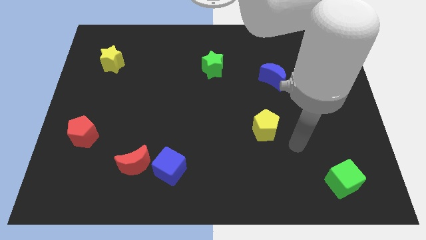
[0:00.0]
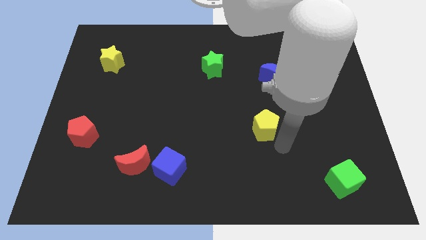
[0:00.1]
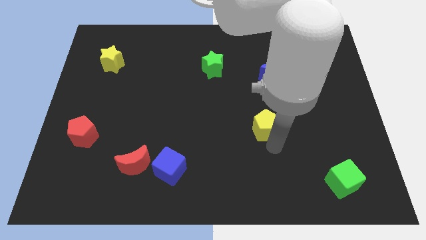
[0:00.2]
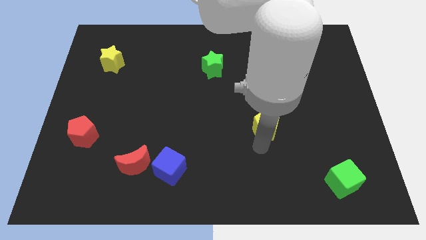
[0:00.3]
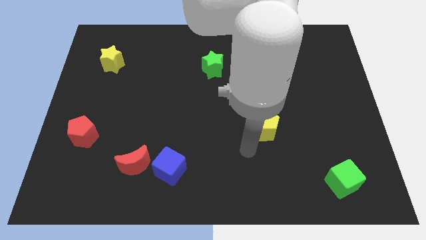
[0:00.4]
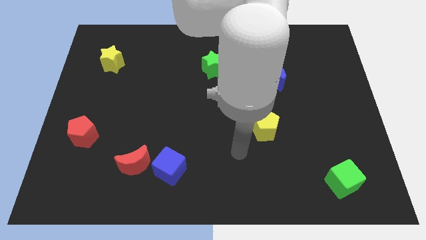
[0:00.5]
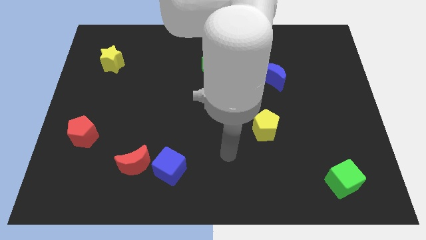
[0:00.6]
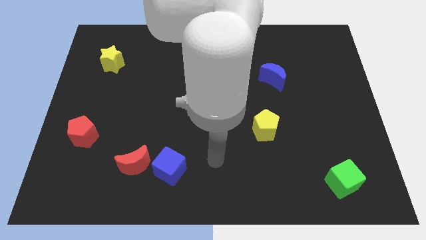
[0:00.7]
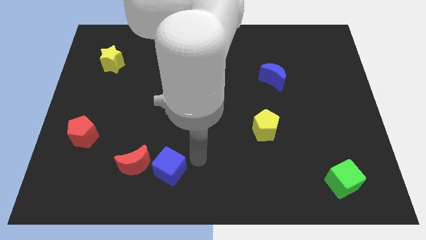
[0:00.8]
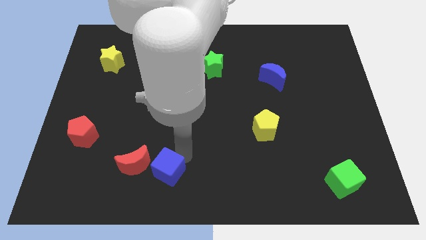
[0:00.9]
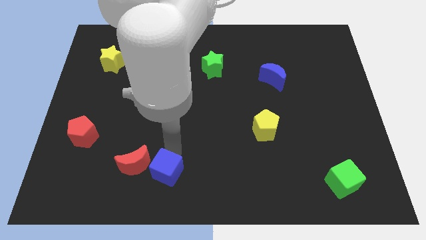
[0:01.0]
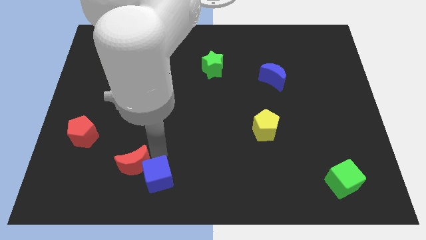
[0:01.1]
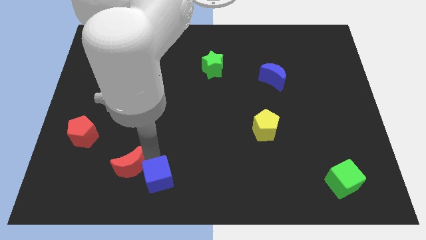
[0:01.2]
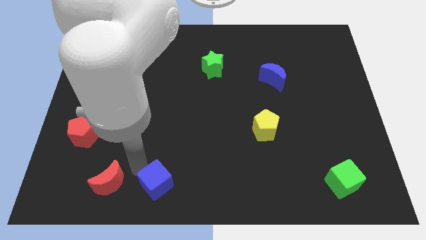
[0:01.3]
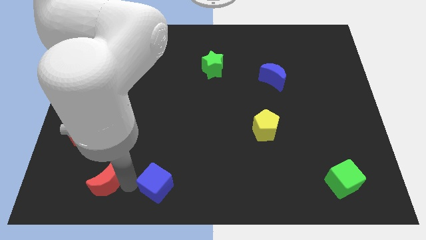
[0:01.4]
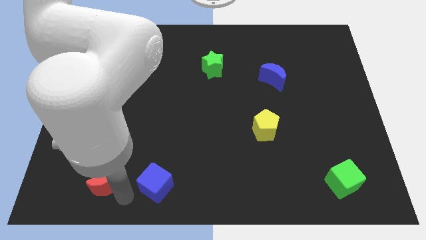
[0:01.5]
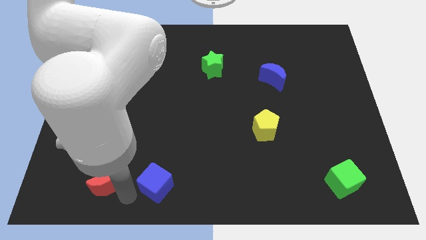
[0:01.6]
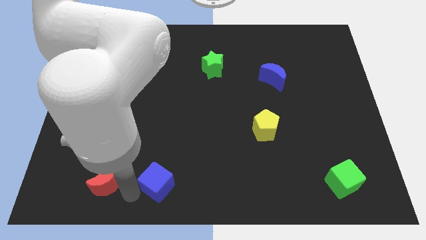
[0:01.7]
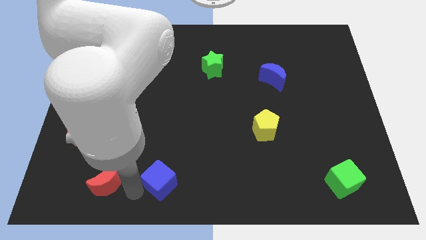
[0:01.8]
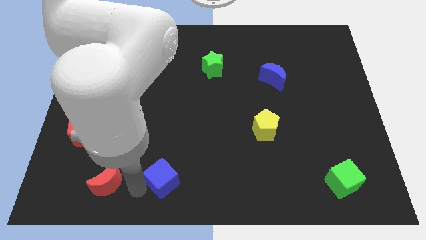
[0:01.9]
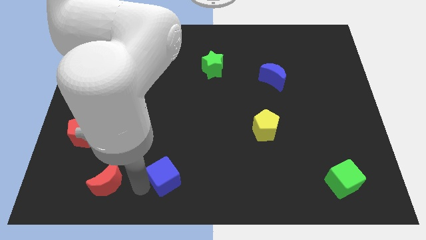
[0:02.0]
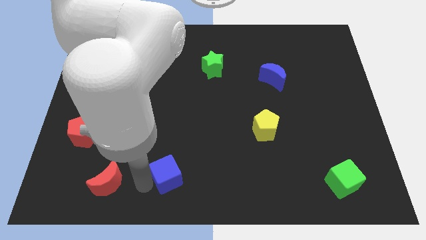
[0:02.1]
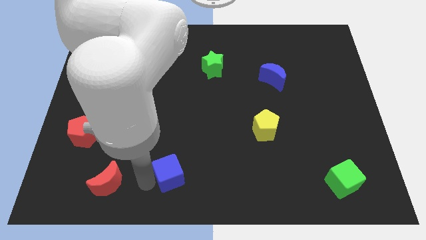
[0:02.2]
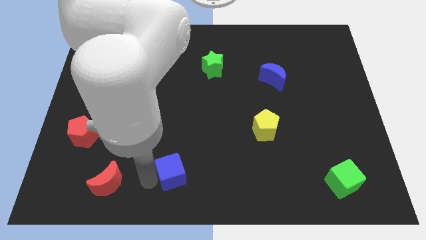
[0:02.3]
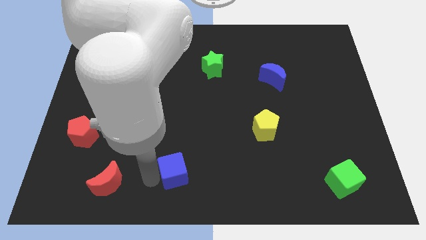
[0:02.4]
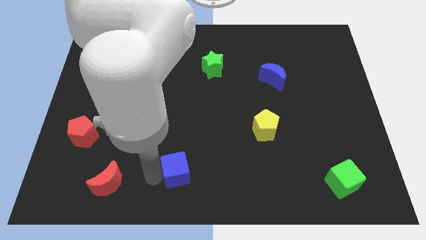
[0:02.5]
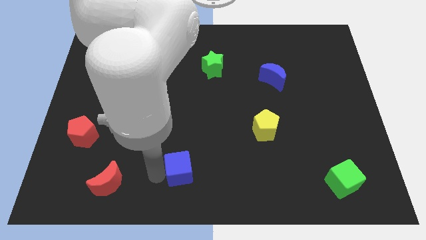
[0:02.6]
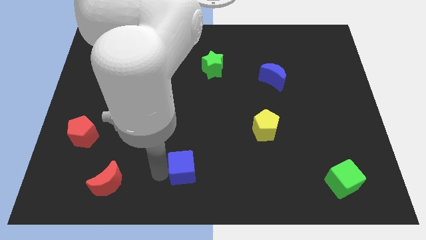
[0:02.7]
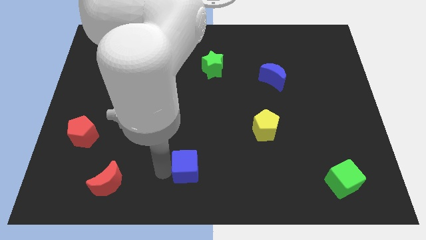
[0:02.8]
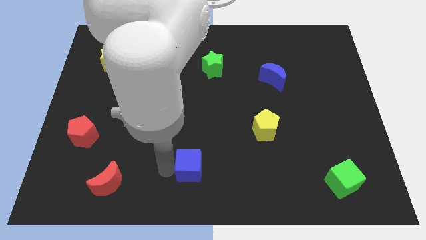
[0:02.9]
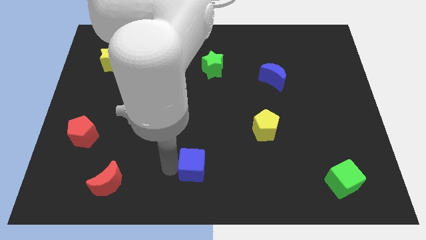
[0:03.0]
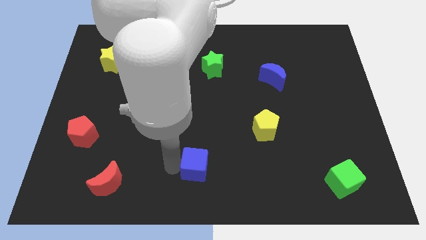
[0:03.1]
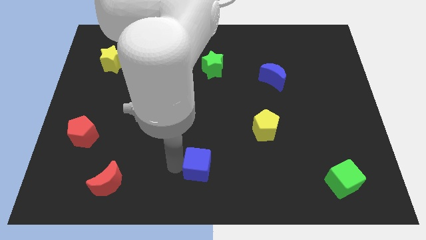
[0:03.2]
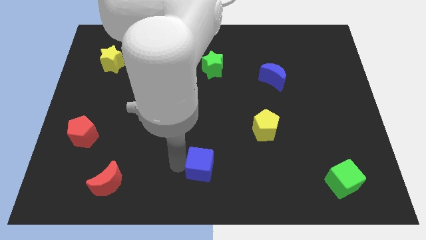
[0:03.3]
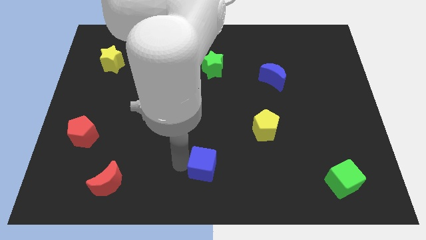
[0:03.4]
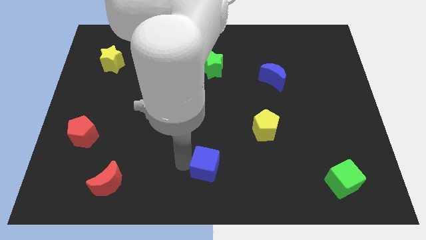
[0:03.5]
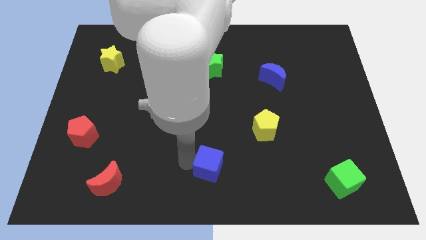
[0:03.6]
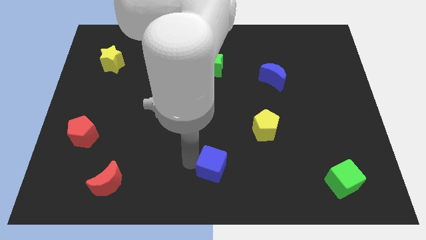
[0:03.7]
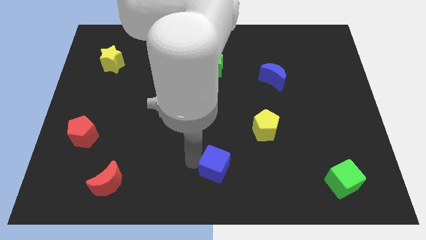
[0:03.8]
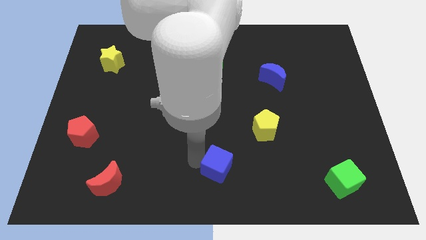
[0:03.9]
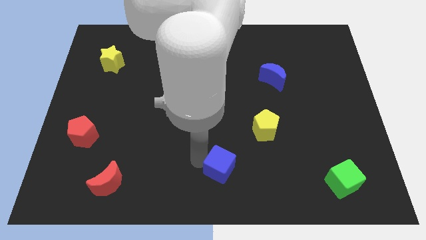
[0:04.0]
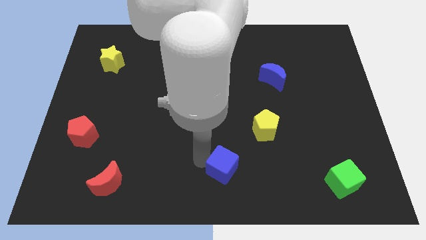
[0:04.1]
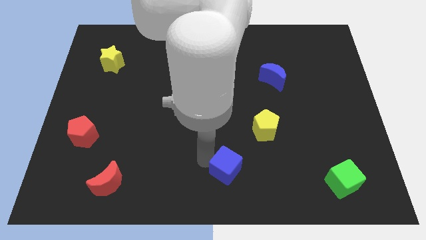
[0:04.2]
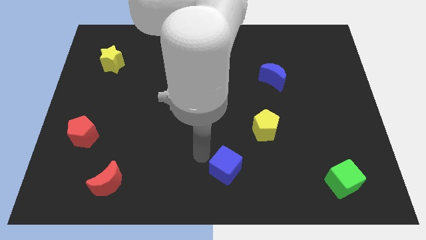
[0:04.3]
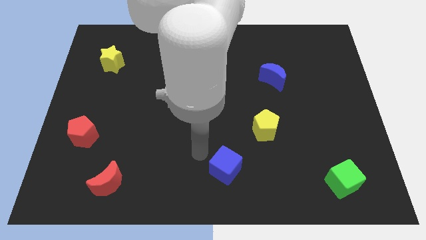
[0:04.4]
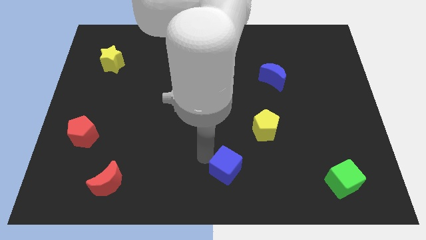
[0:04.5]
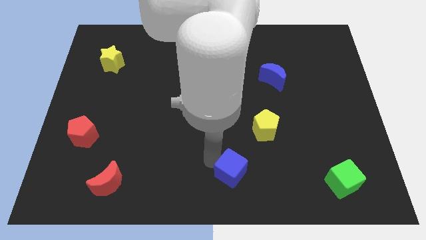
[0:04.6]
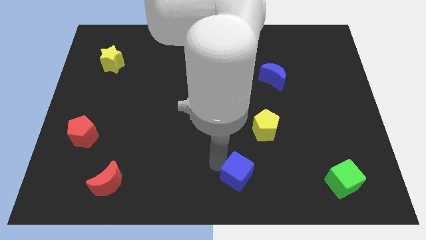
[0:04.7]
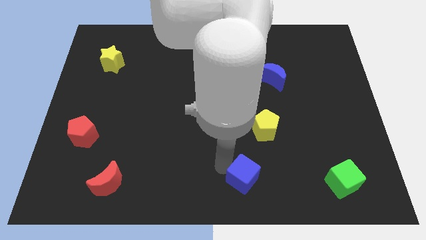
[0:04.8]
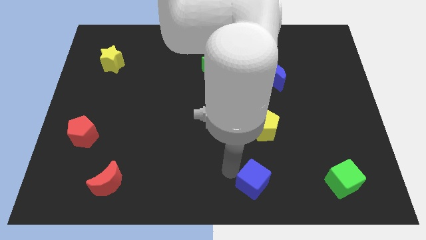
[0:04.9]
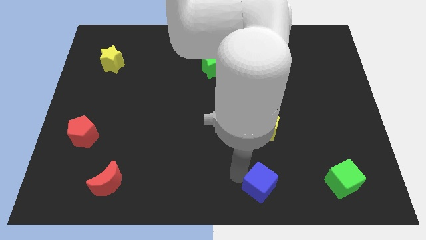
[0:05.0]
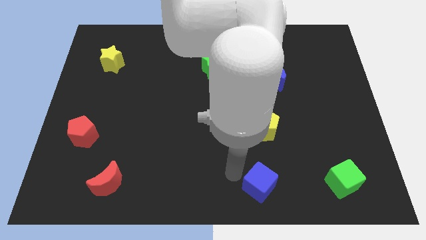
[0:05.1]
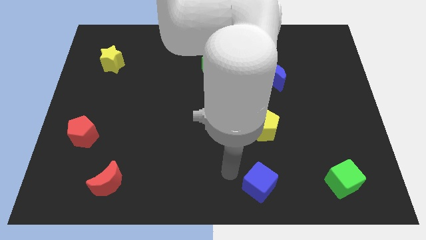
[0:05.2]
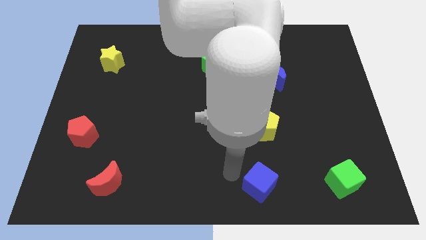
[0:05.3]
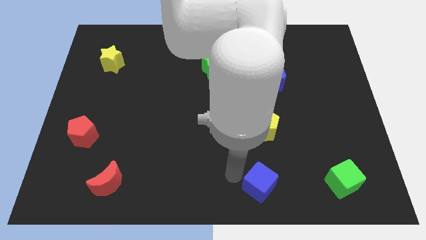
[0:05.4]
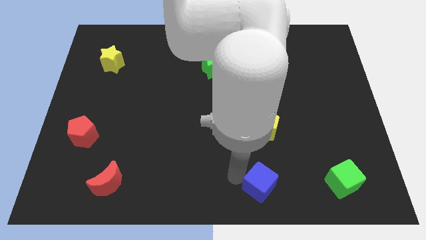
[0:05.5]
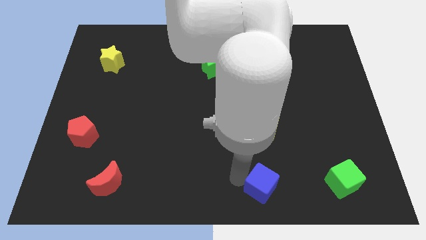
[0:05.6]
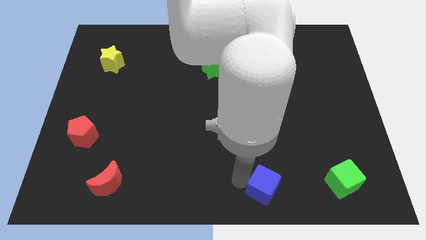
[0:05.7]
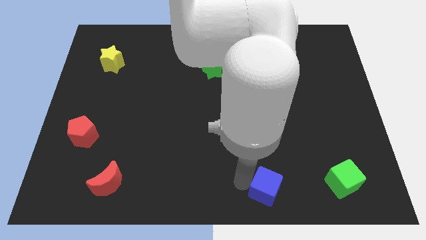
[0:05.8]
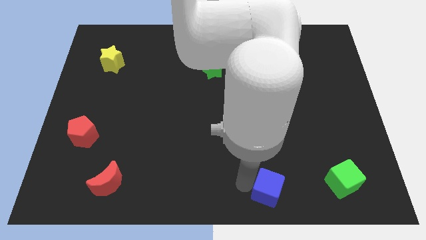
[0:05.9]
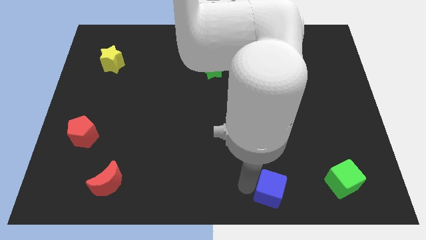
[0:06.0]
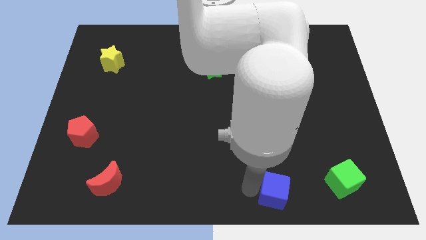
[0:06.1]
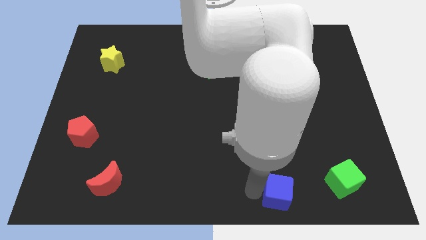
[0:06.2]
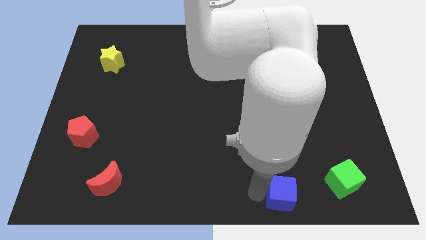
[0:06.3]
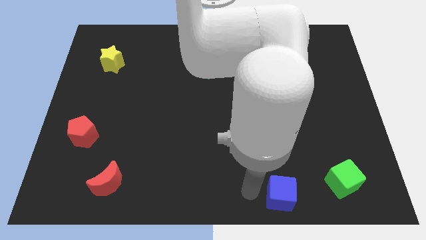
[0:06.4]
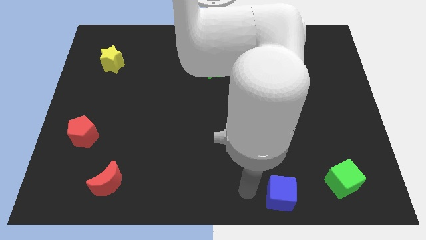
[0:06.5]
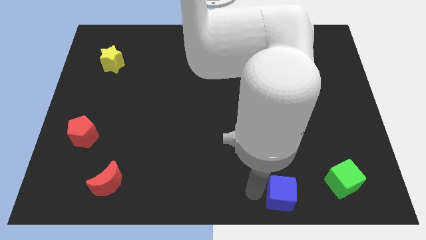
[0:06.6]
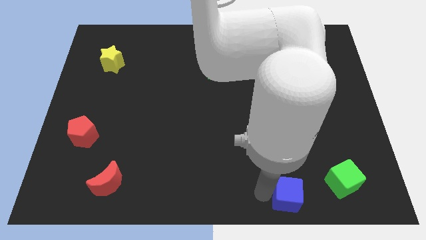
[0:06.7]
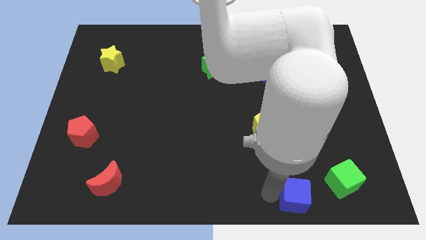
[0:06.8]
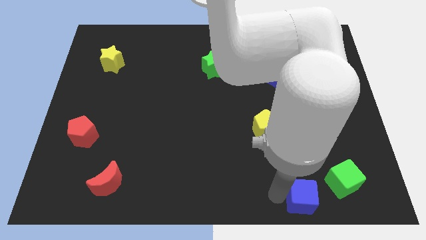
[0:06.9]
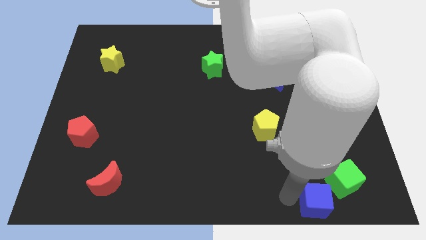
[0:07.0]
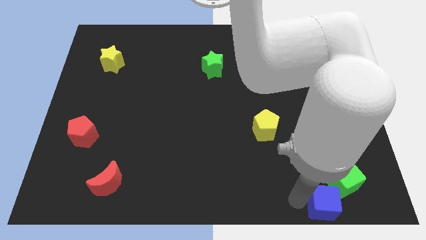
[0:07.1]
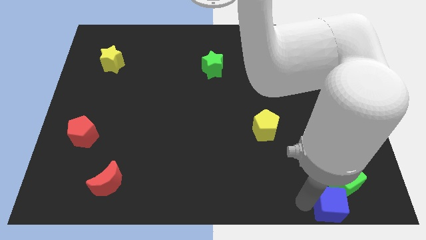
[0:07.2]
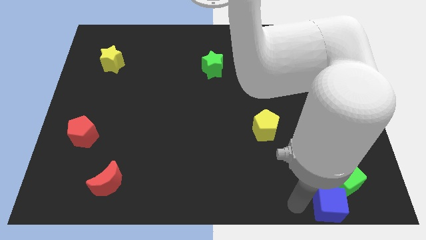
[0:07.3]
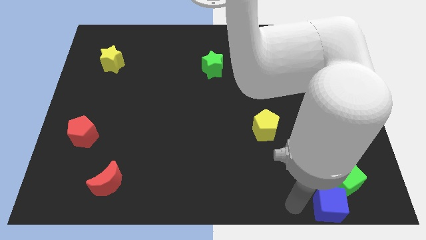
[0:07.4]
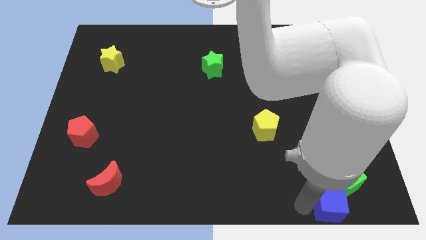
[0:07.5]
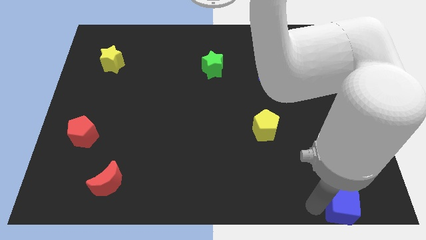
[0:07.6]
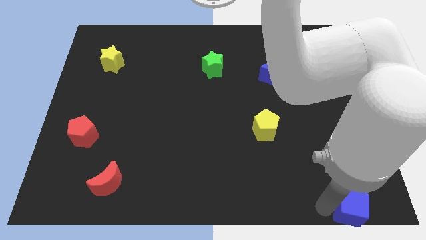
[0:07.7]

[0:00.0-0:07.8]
slide the blue cube to the bottom right of the board

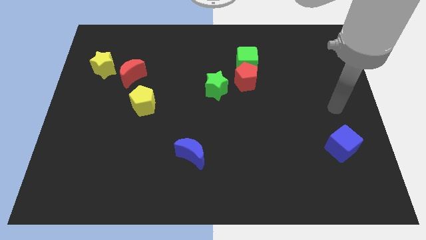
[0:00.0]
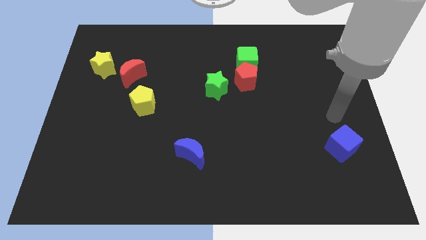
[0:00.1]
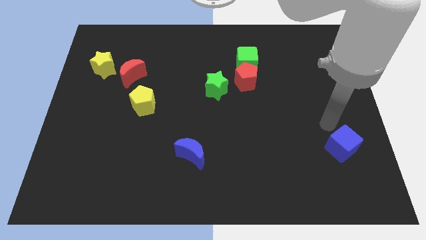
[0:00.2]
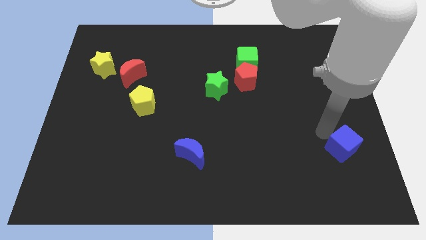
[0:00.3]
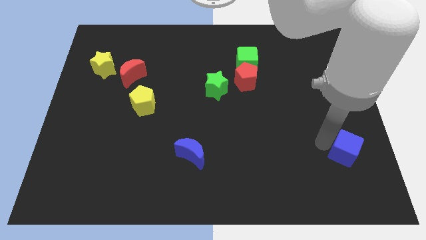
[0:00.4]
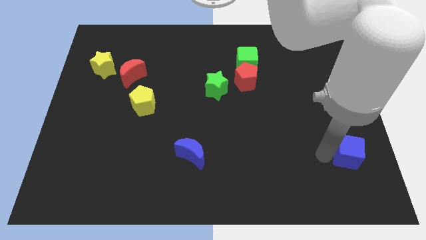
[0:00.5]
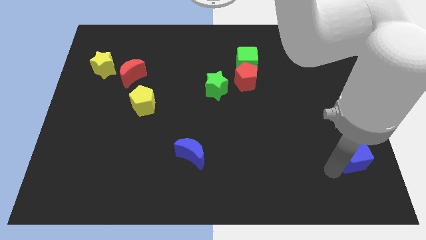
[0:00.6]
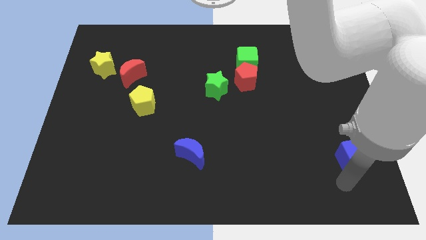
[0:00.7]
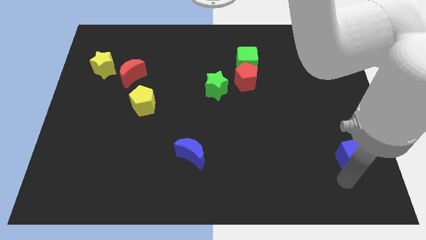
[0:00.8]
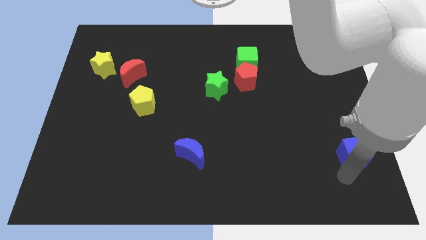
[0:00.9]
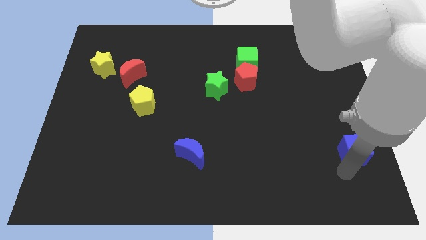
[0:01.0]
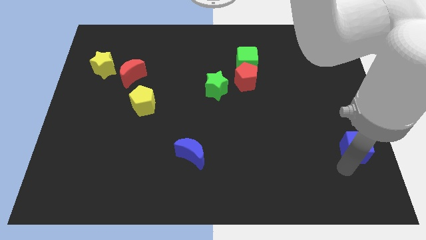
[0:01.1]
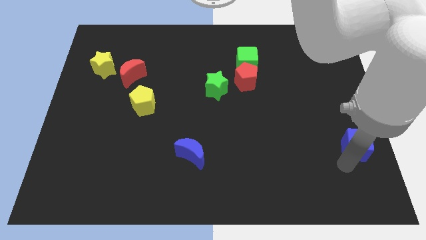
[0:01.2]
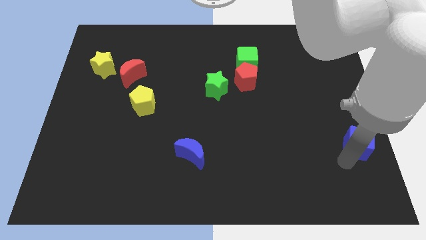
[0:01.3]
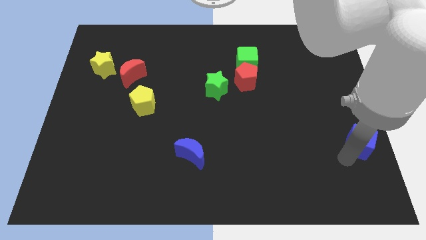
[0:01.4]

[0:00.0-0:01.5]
move the blue cube to the right side of the board
